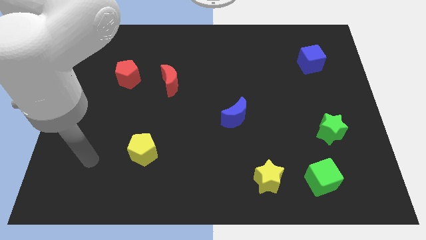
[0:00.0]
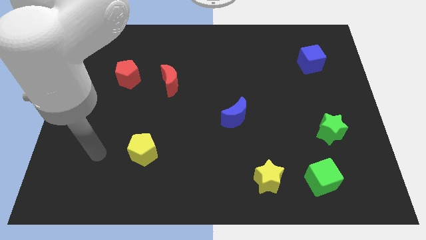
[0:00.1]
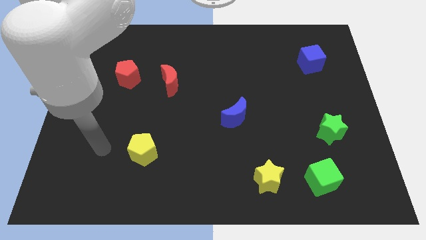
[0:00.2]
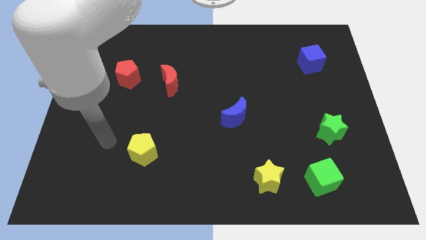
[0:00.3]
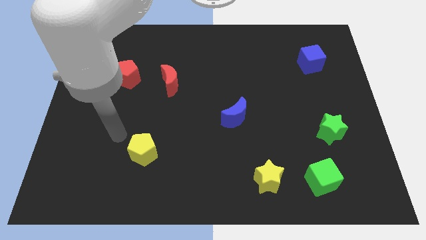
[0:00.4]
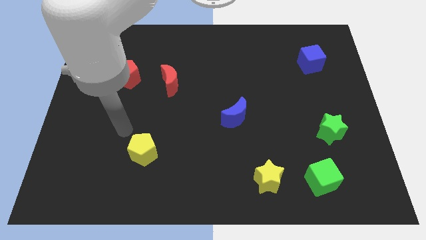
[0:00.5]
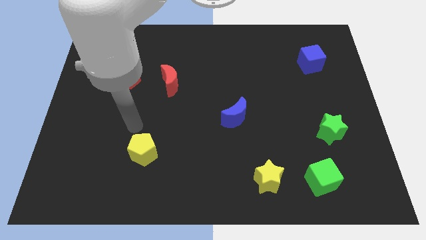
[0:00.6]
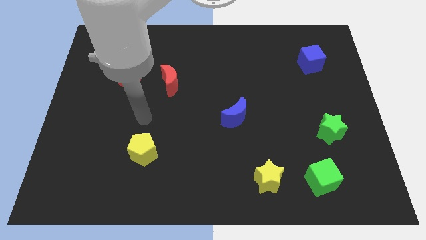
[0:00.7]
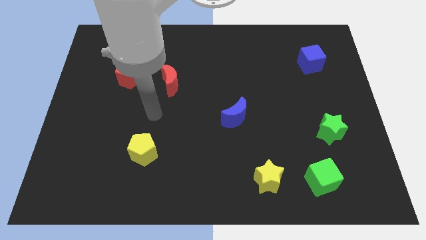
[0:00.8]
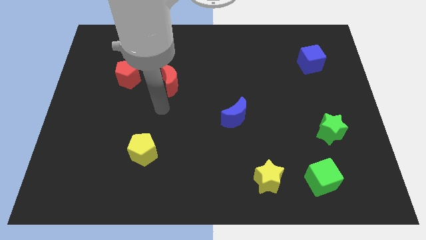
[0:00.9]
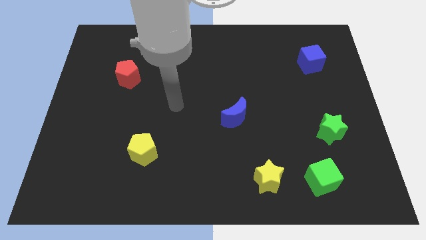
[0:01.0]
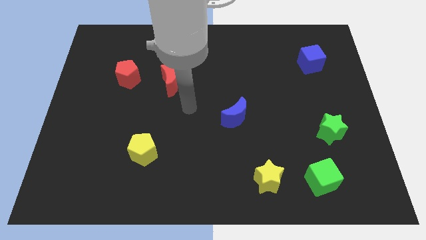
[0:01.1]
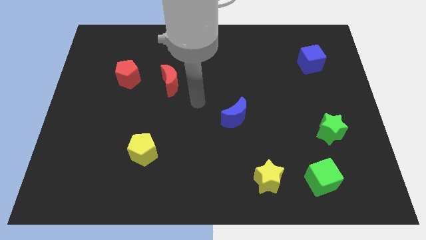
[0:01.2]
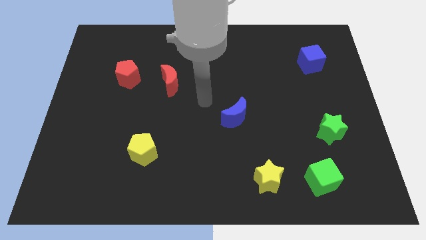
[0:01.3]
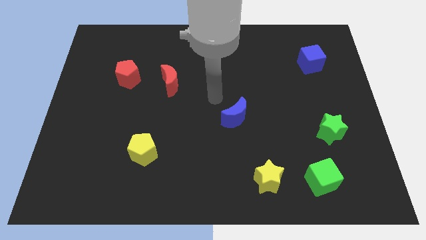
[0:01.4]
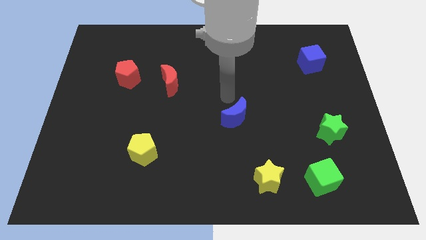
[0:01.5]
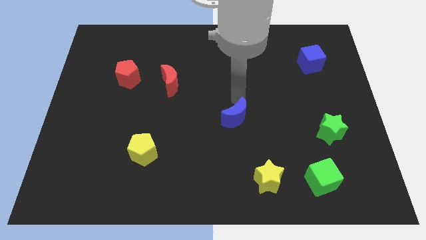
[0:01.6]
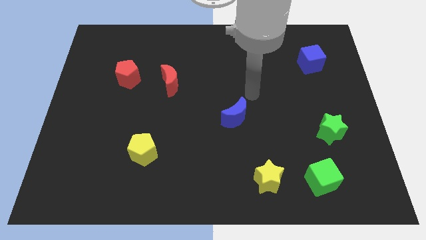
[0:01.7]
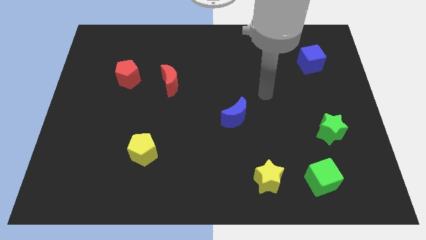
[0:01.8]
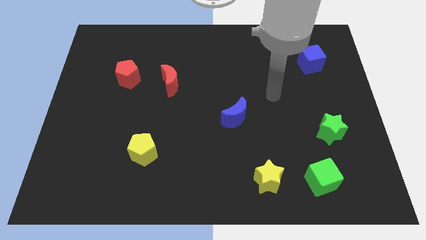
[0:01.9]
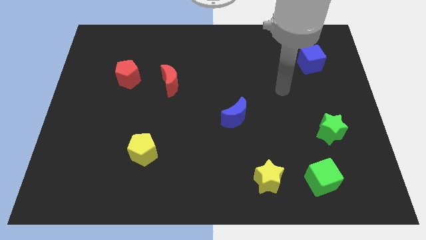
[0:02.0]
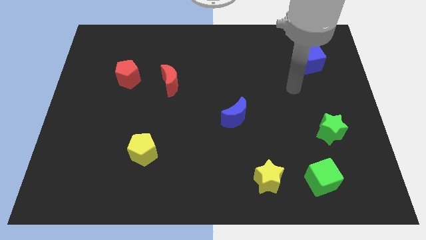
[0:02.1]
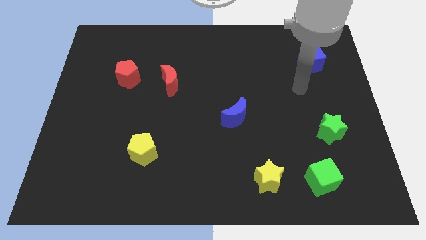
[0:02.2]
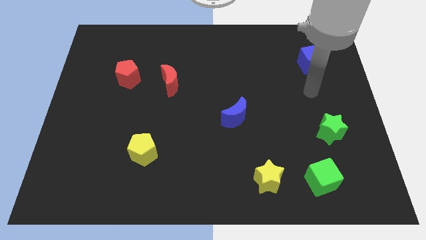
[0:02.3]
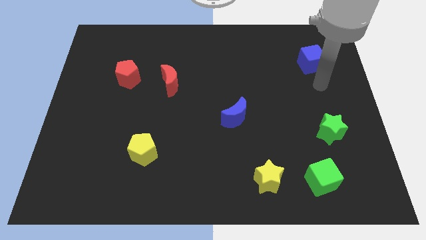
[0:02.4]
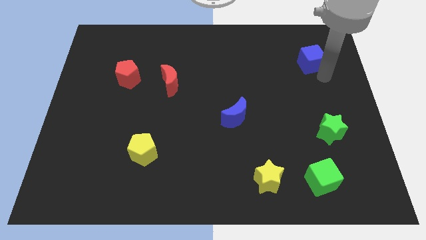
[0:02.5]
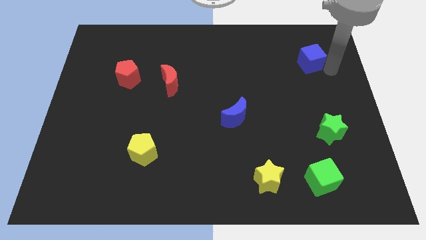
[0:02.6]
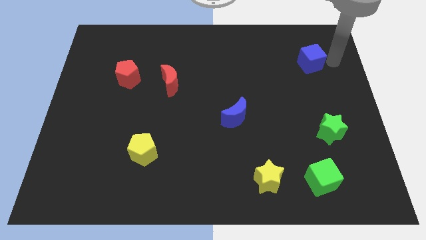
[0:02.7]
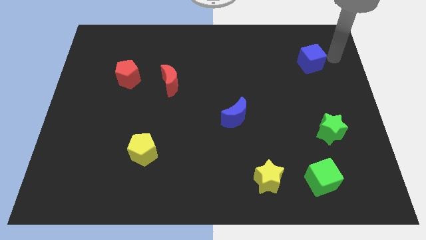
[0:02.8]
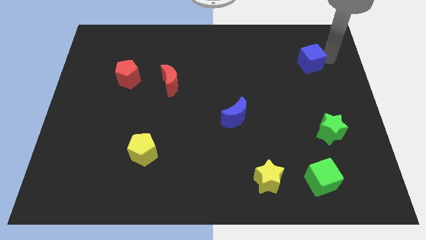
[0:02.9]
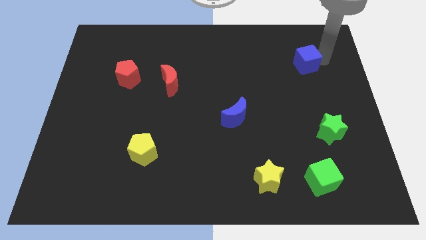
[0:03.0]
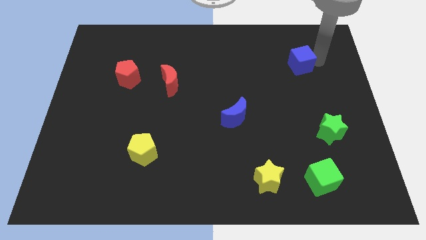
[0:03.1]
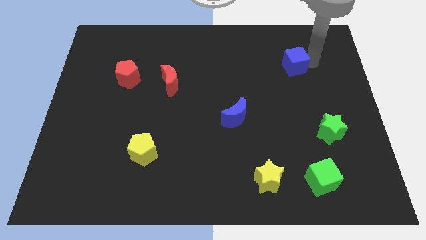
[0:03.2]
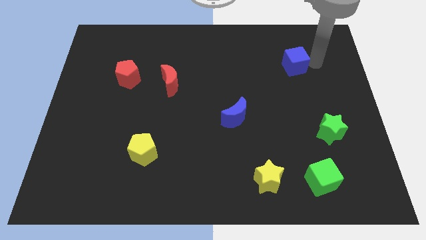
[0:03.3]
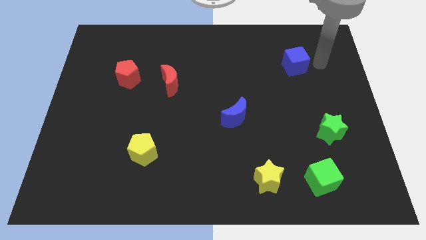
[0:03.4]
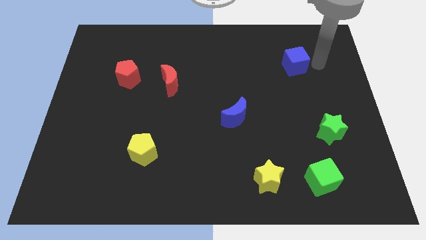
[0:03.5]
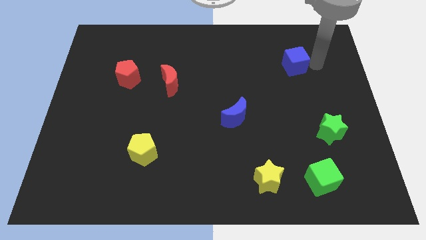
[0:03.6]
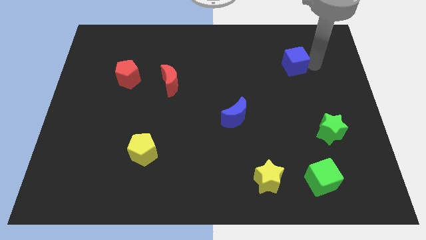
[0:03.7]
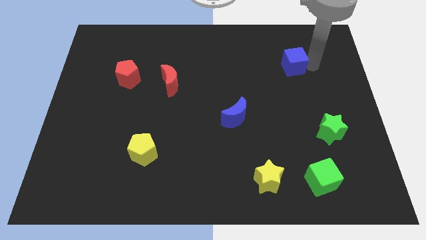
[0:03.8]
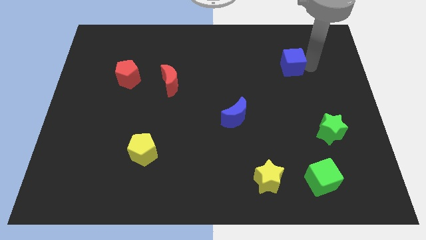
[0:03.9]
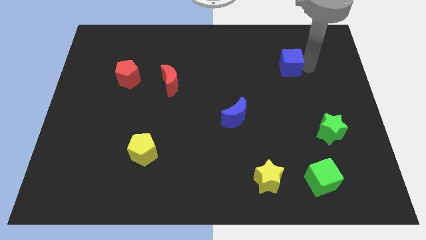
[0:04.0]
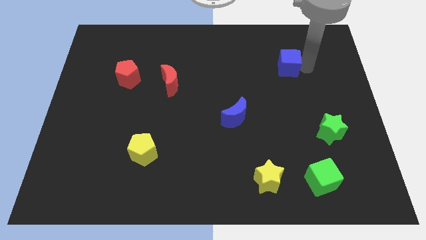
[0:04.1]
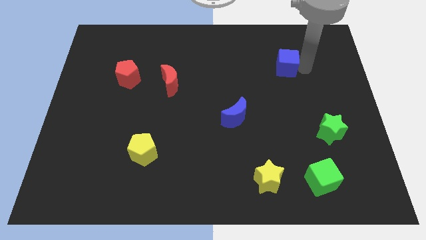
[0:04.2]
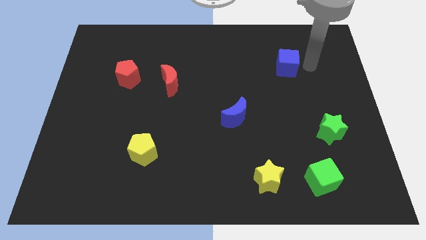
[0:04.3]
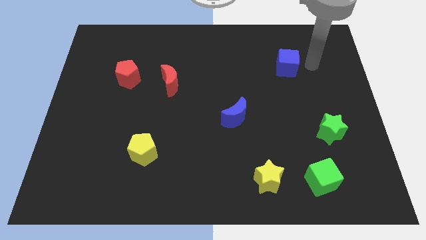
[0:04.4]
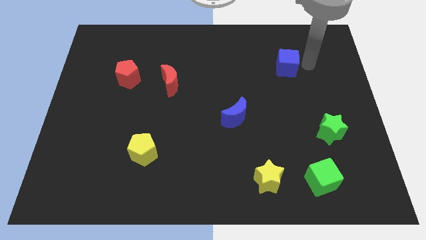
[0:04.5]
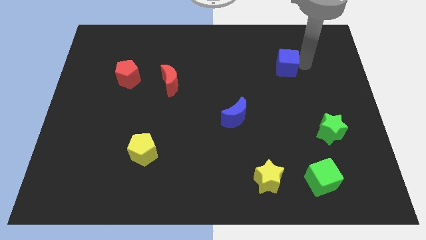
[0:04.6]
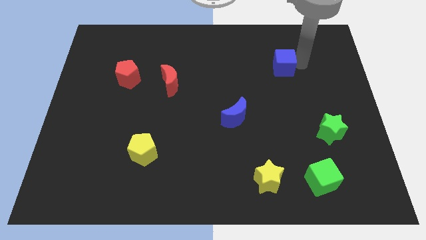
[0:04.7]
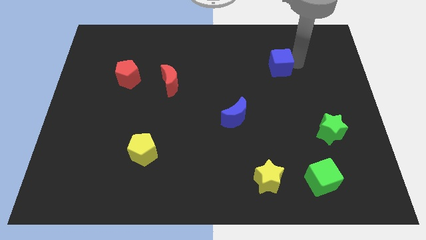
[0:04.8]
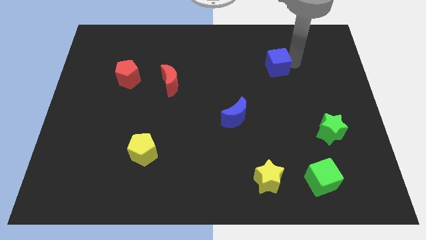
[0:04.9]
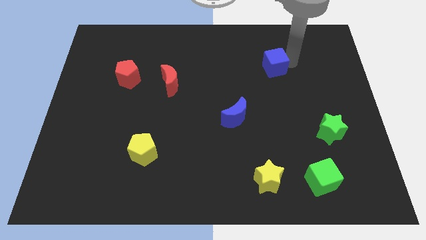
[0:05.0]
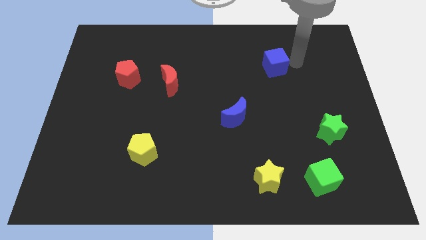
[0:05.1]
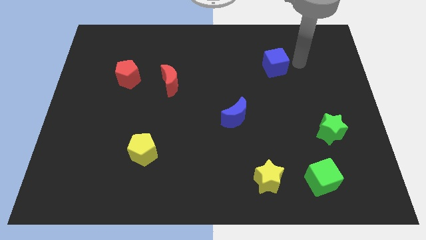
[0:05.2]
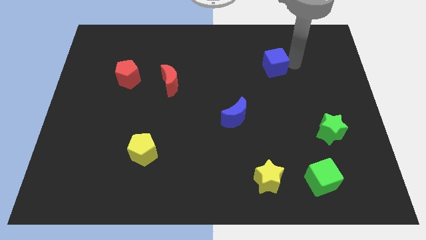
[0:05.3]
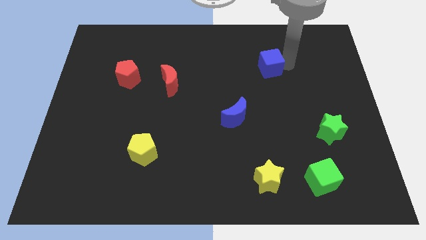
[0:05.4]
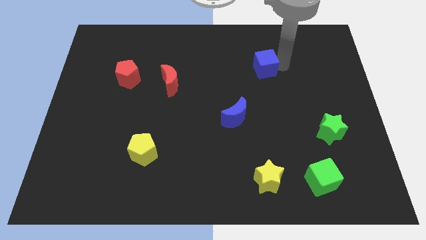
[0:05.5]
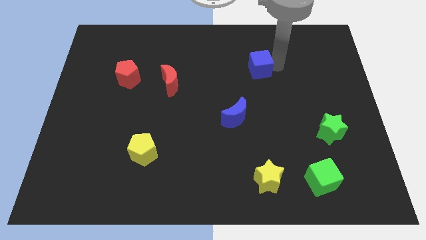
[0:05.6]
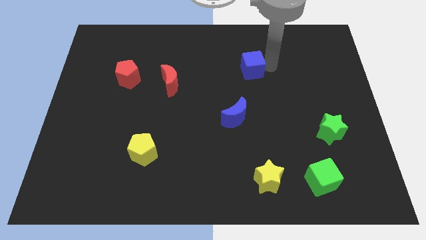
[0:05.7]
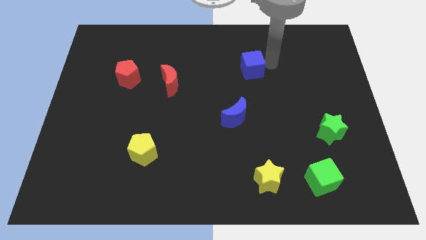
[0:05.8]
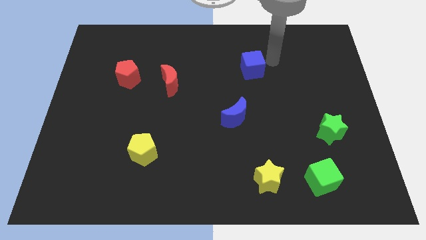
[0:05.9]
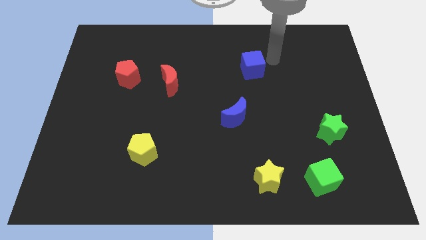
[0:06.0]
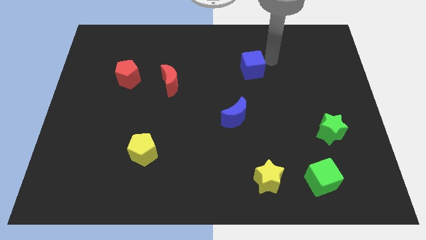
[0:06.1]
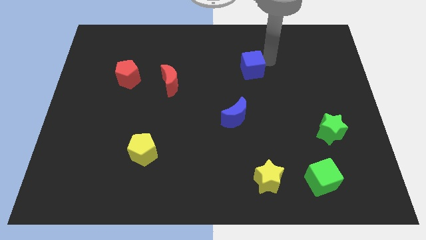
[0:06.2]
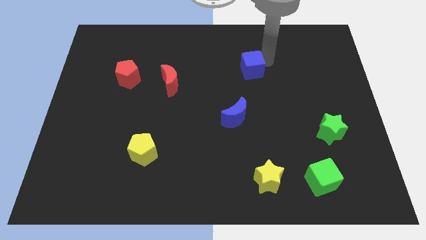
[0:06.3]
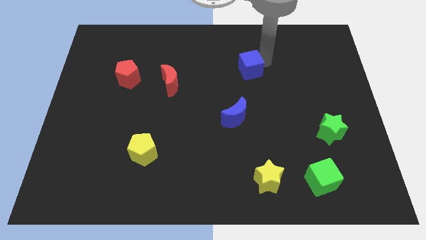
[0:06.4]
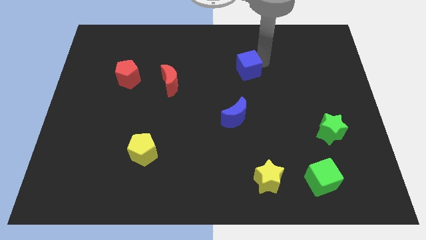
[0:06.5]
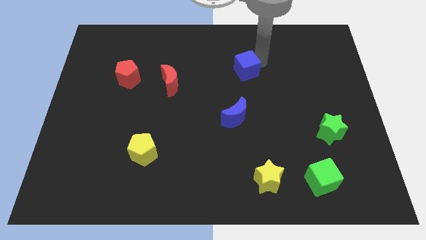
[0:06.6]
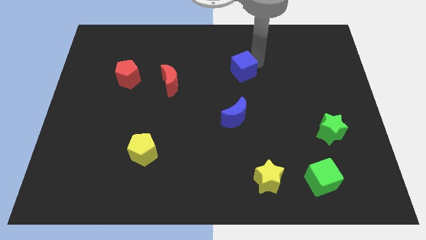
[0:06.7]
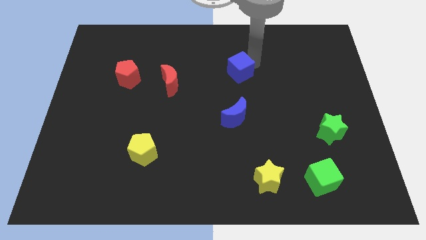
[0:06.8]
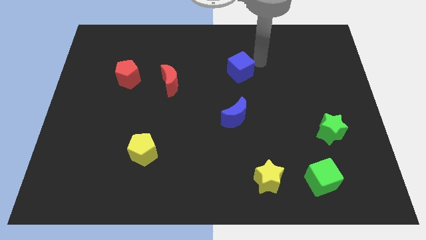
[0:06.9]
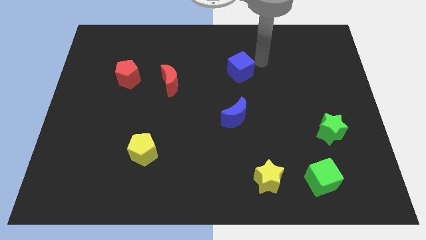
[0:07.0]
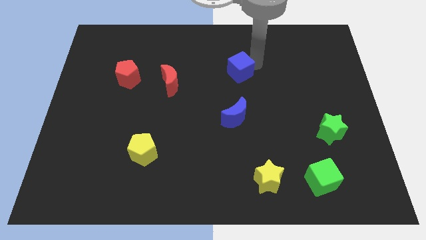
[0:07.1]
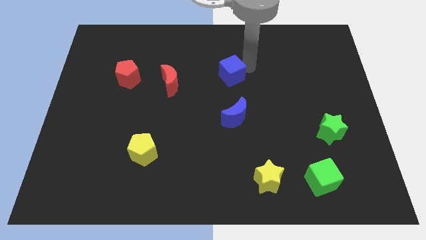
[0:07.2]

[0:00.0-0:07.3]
push the blue cube to the right of the red moon

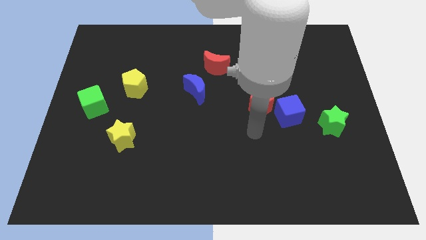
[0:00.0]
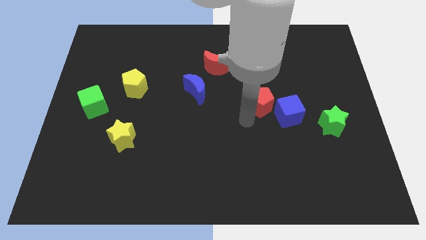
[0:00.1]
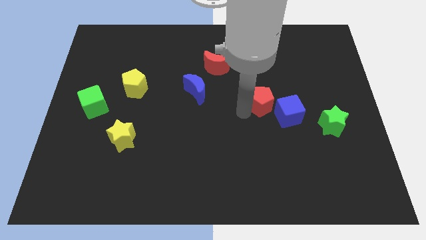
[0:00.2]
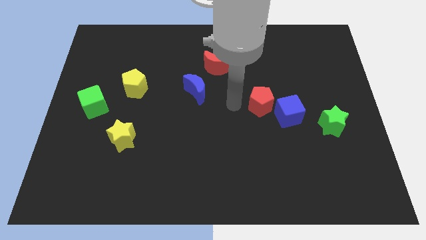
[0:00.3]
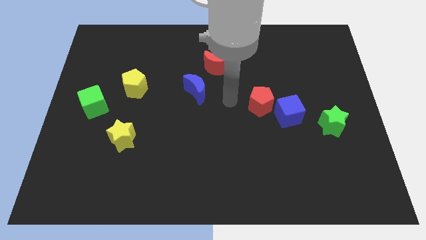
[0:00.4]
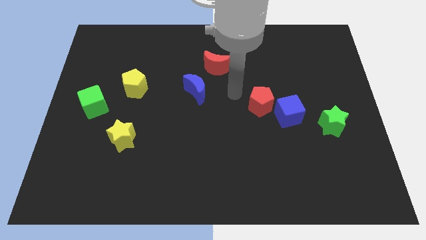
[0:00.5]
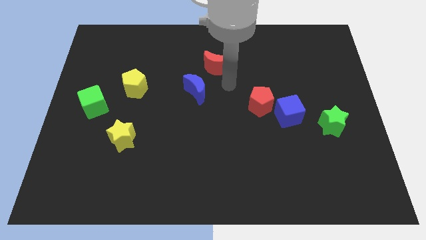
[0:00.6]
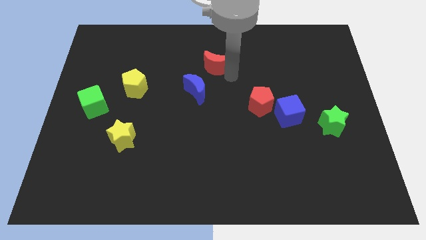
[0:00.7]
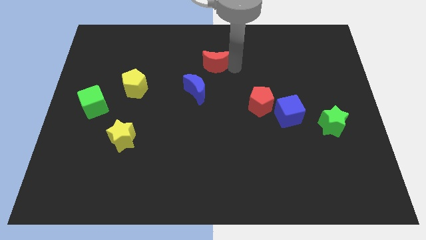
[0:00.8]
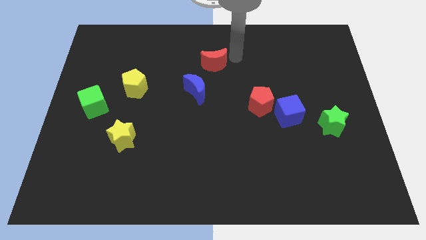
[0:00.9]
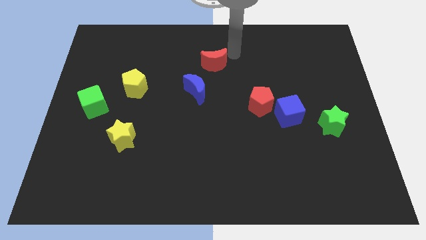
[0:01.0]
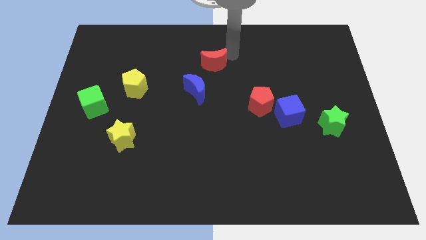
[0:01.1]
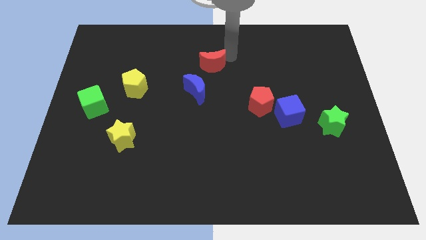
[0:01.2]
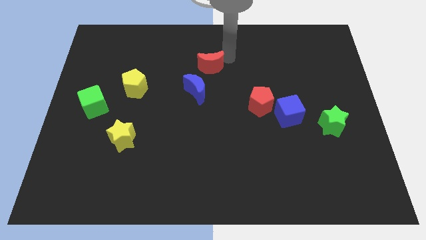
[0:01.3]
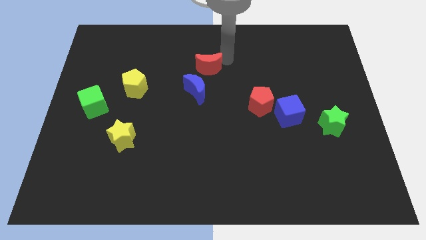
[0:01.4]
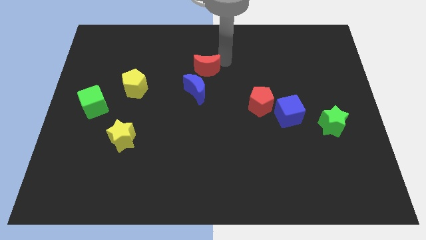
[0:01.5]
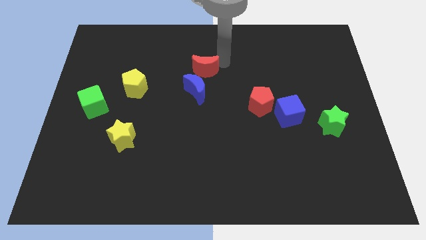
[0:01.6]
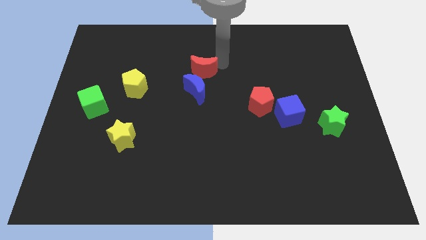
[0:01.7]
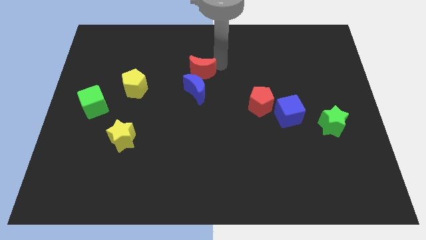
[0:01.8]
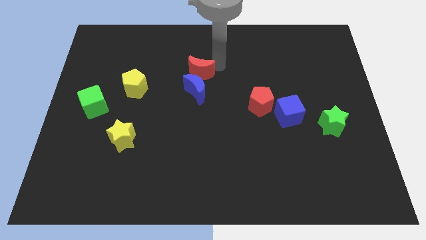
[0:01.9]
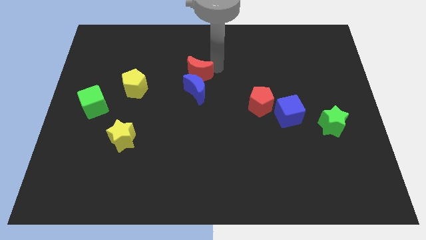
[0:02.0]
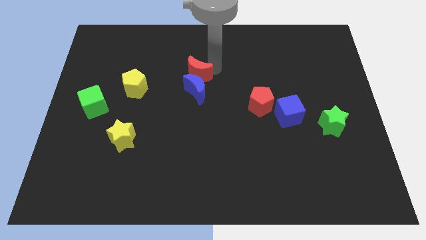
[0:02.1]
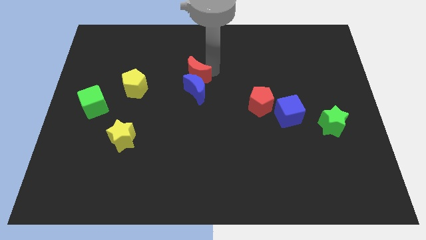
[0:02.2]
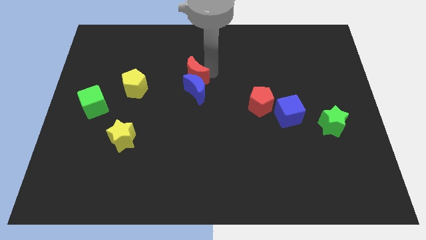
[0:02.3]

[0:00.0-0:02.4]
slide the red moon just right of the yellow pentagon
